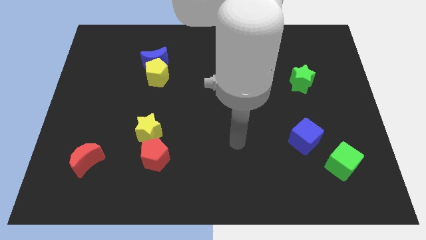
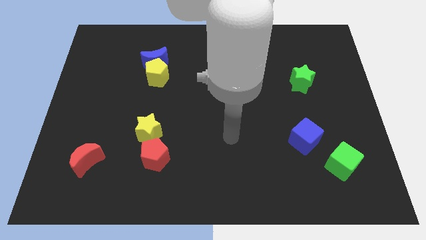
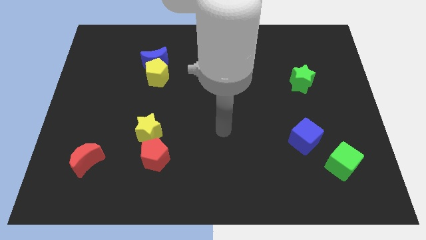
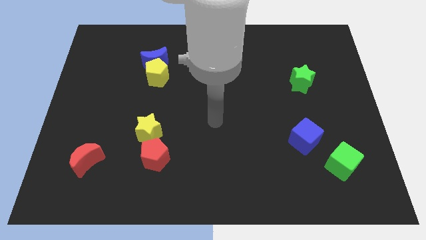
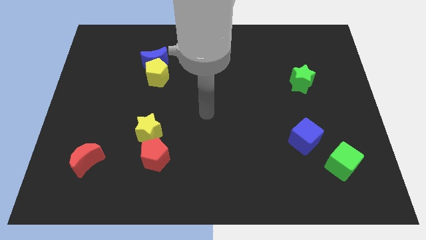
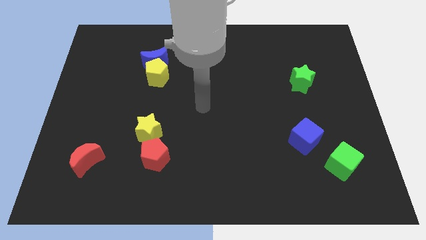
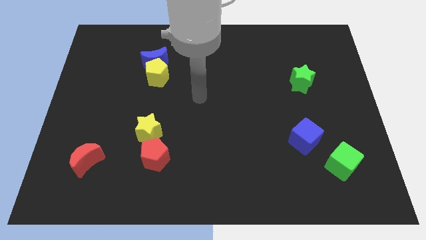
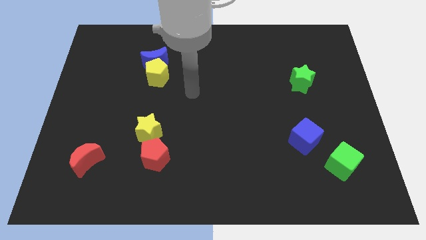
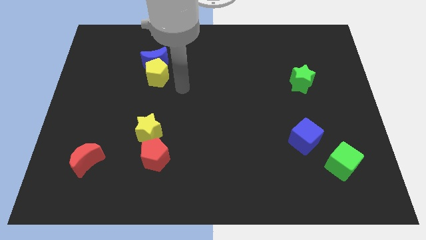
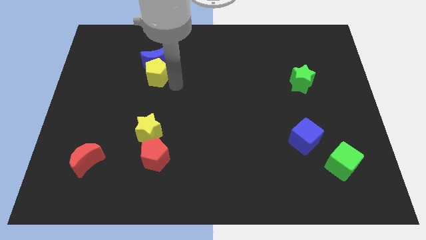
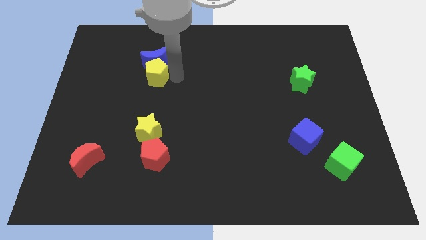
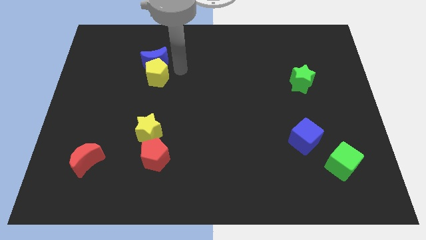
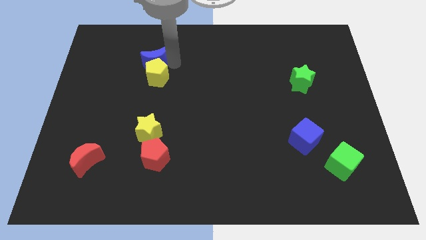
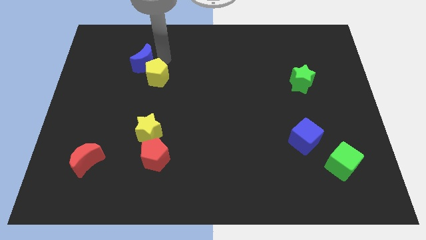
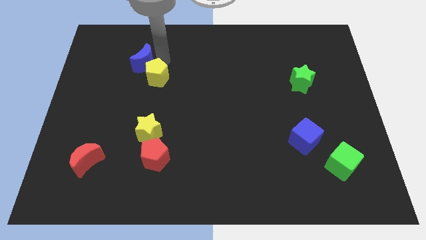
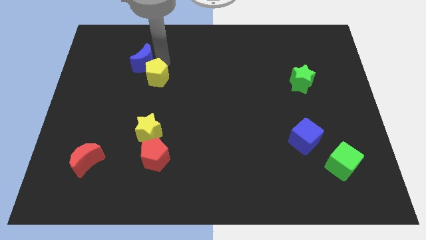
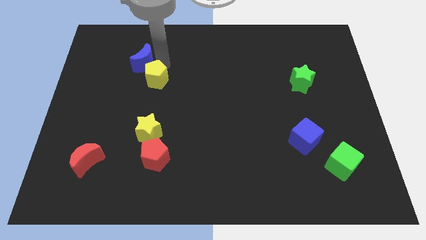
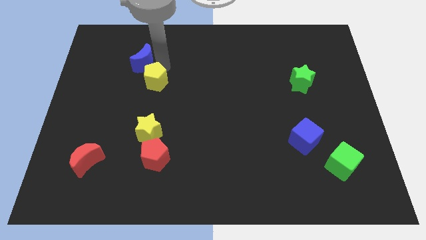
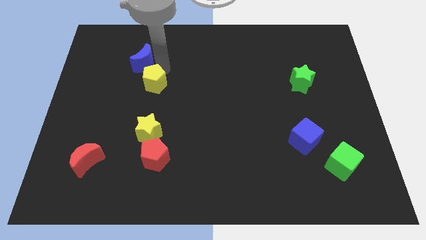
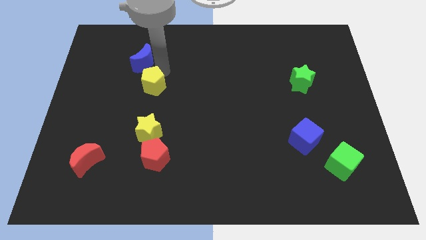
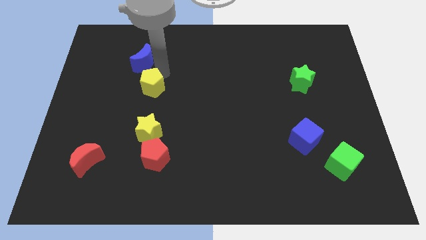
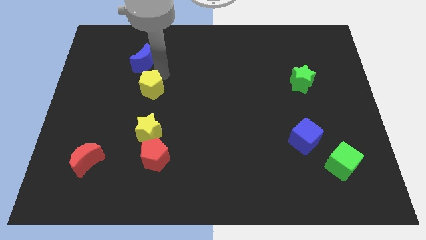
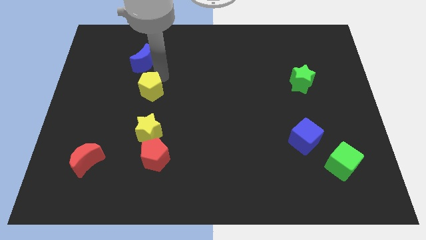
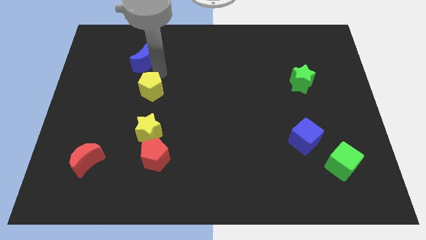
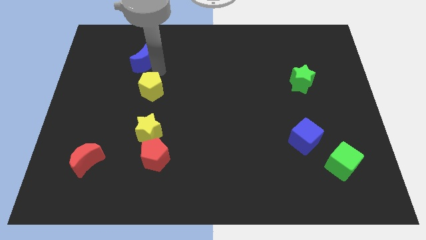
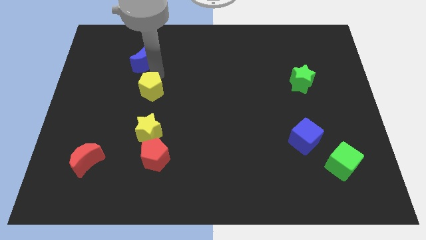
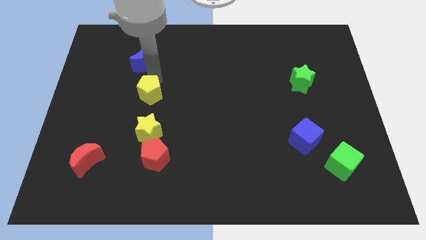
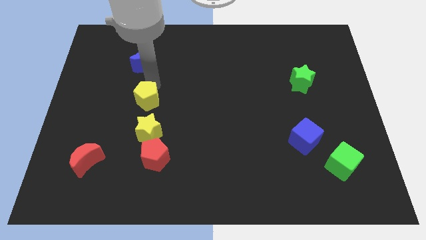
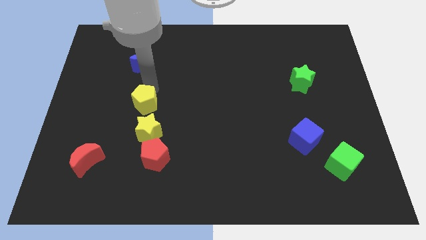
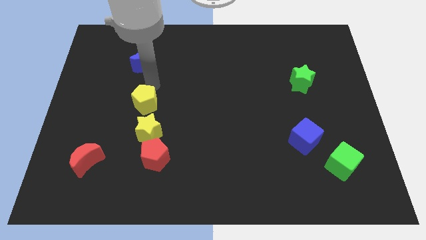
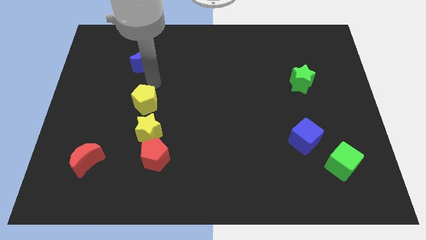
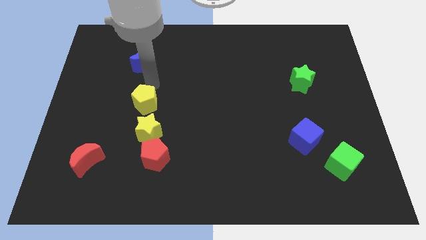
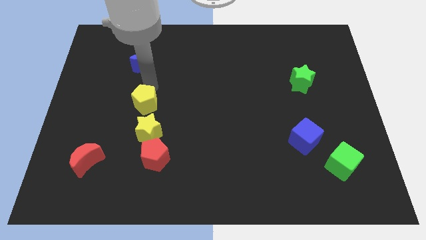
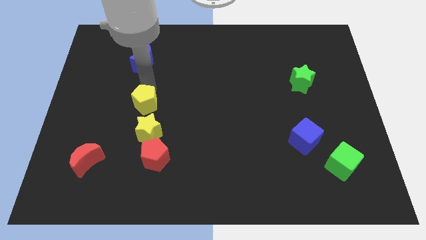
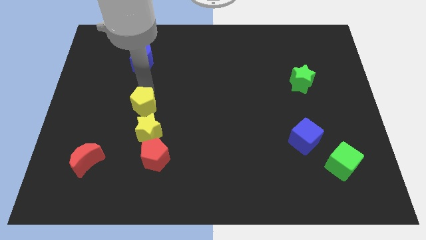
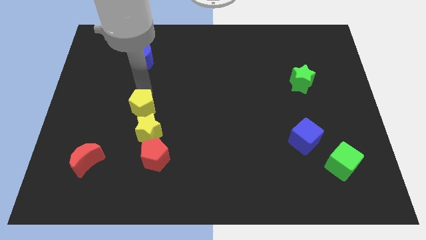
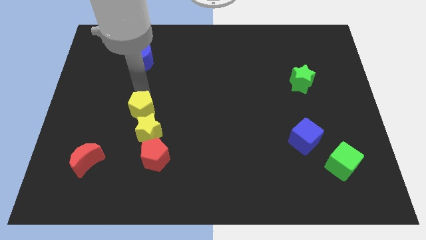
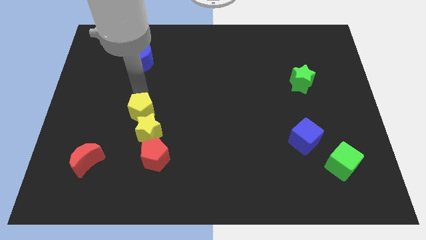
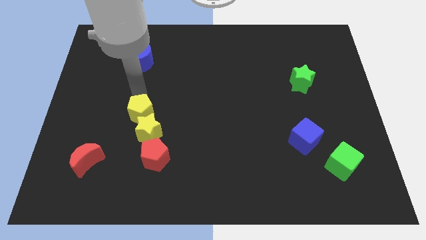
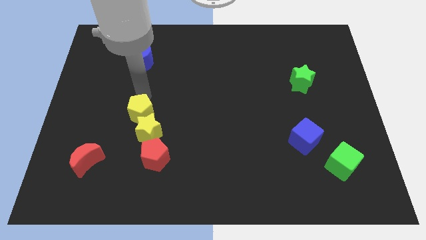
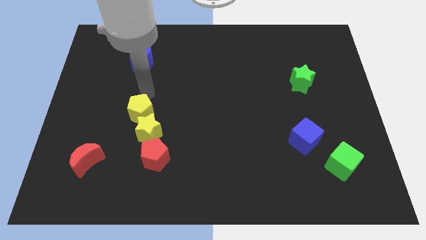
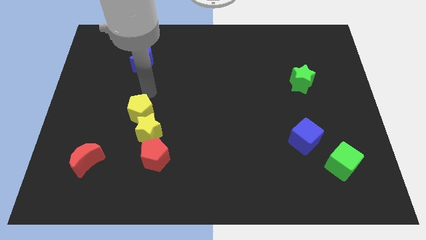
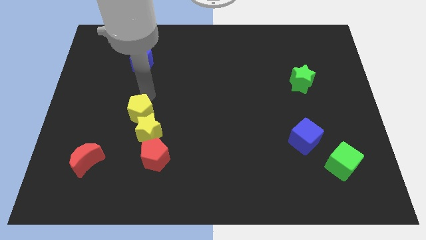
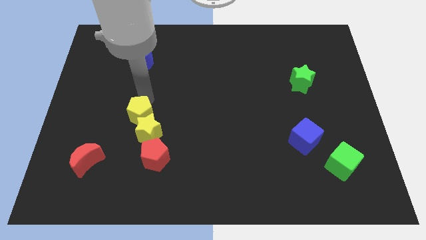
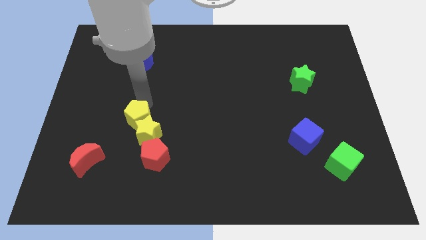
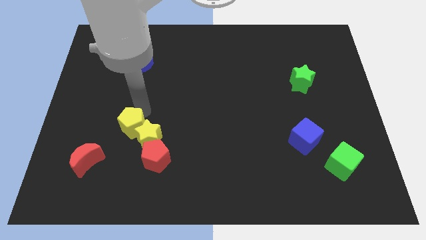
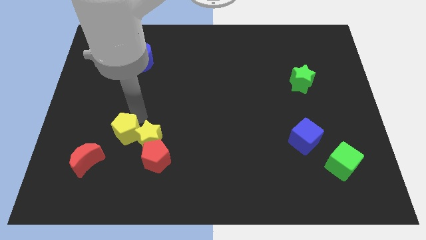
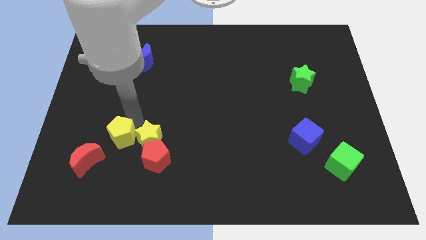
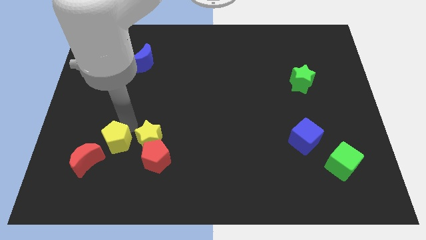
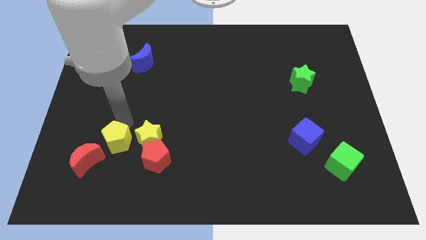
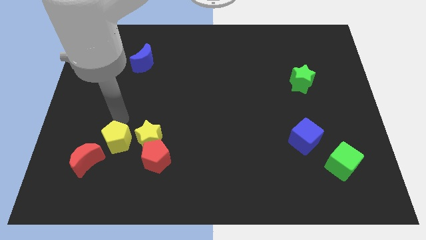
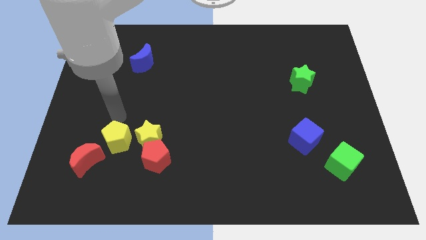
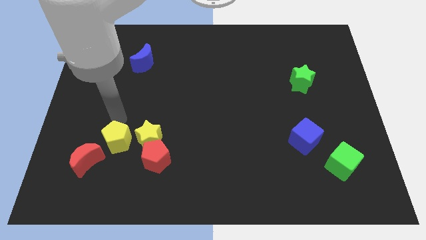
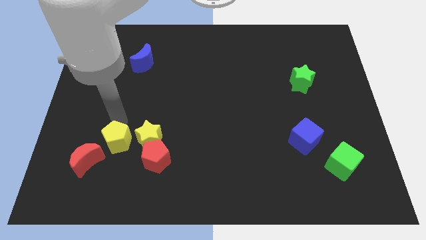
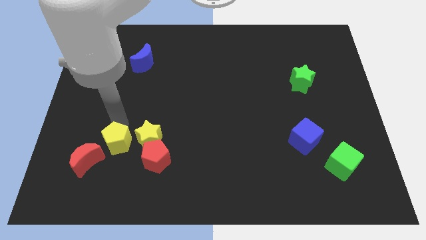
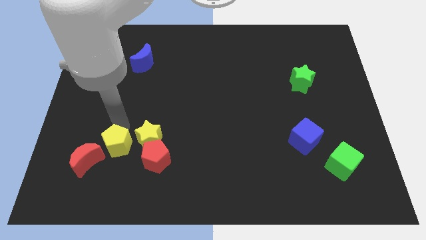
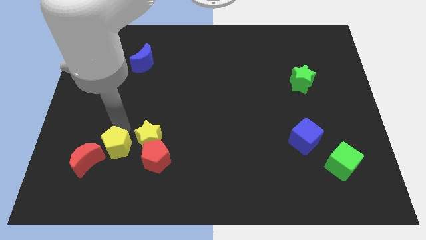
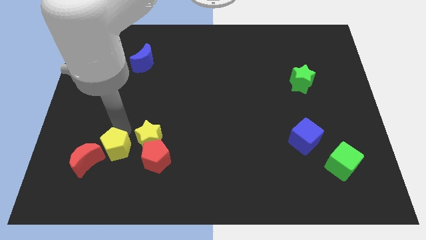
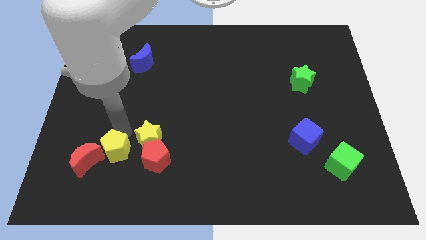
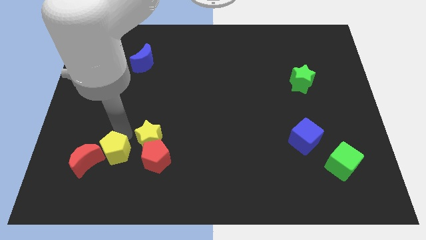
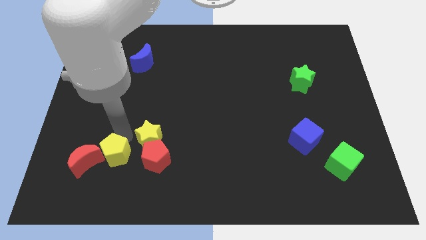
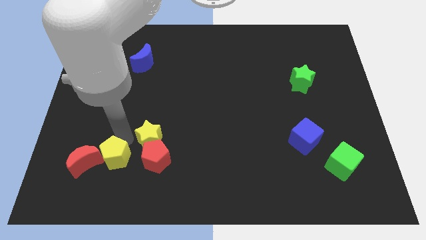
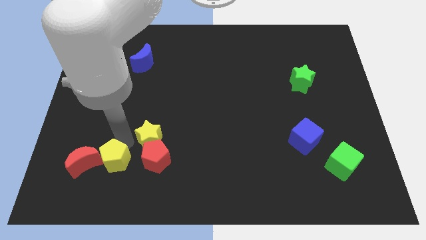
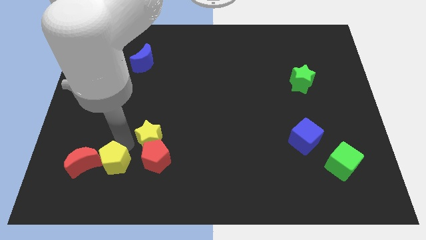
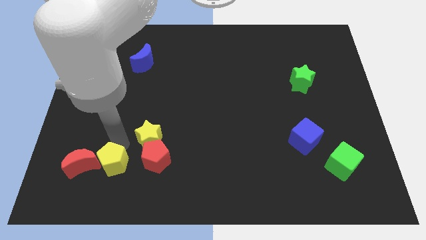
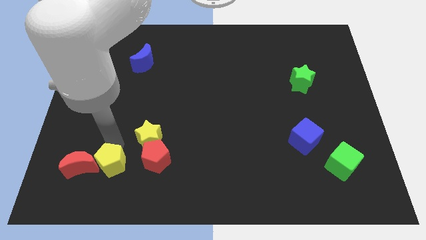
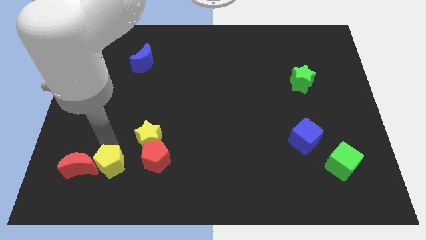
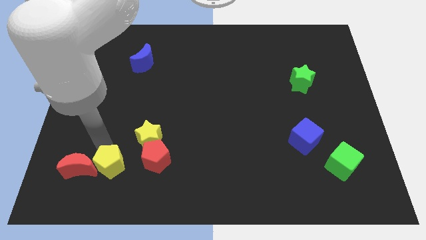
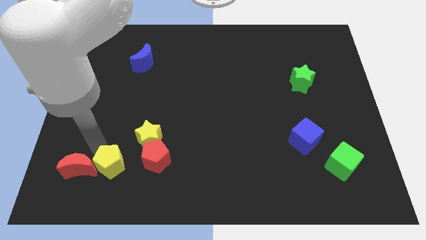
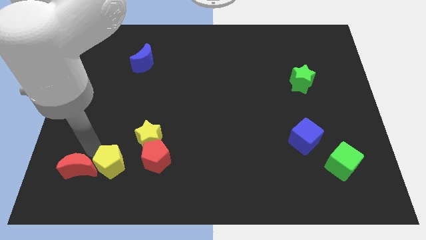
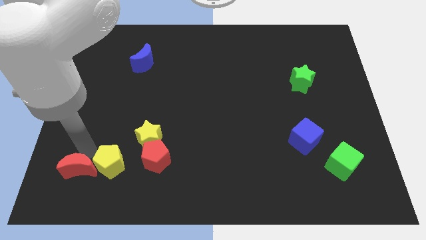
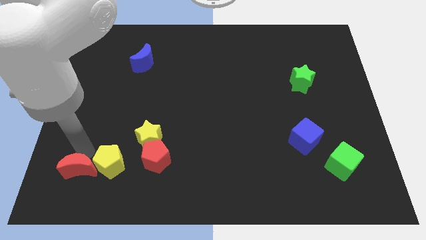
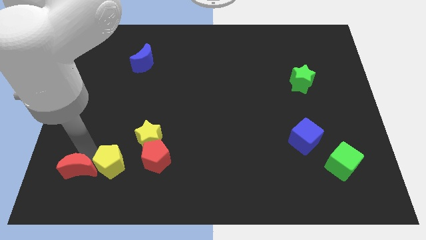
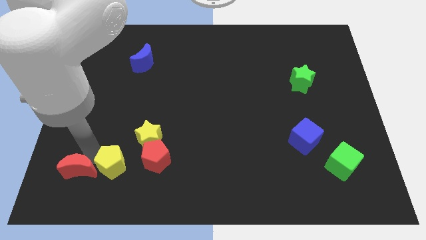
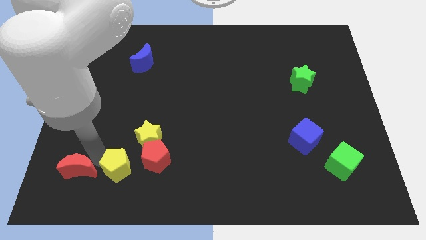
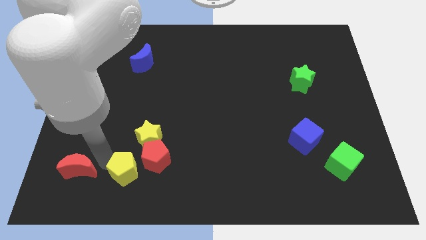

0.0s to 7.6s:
slide the yellow pentagon to the bottom of the yellow star

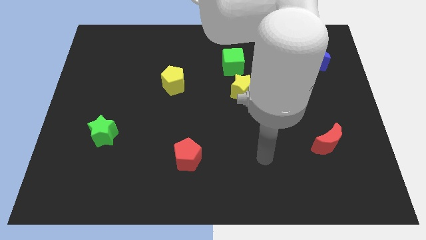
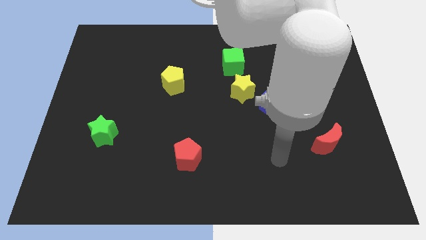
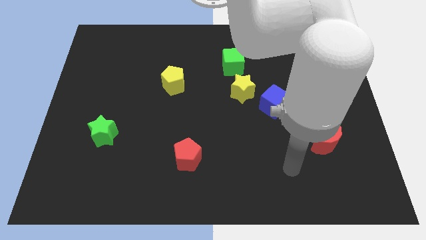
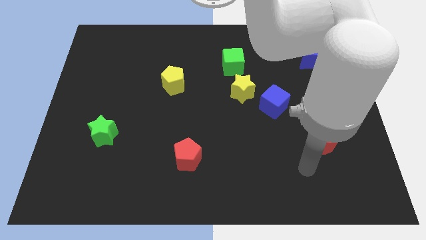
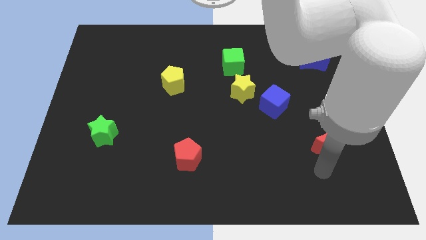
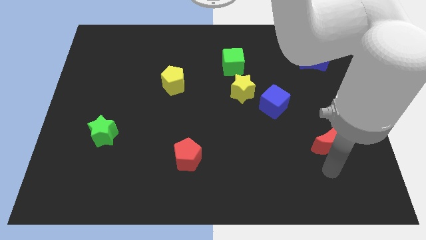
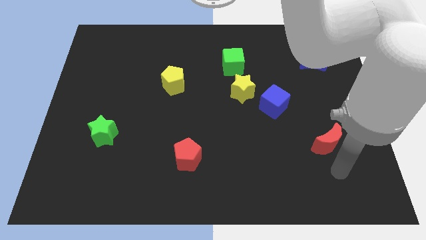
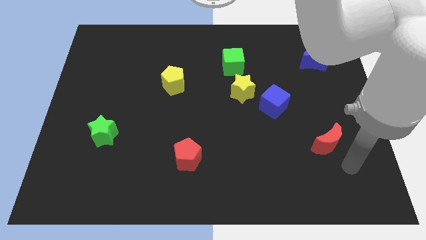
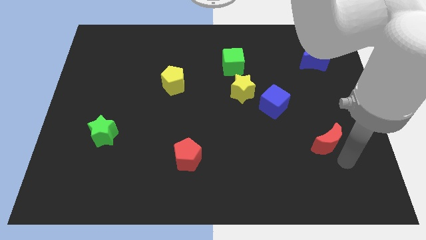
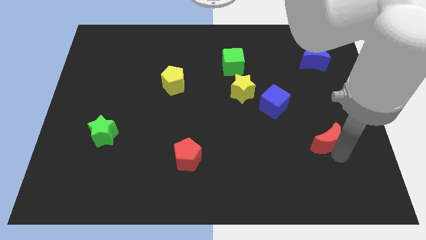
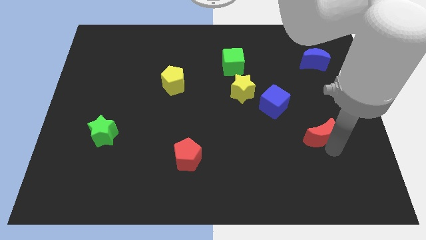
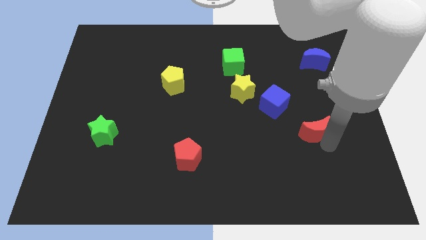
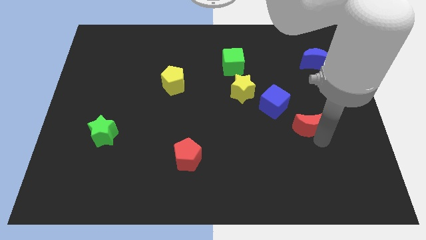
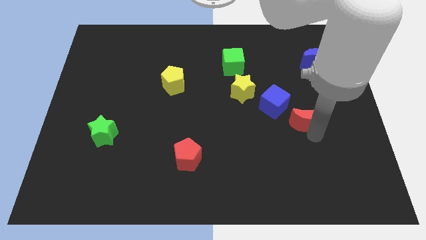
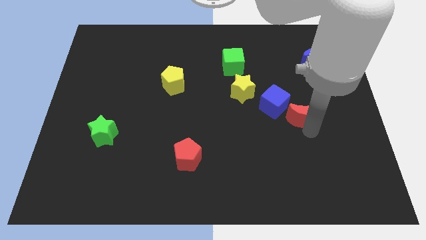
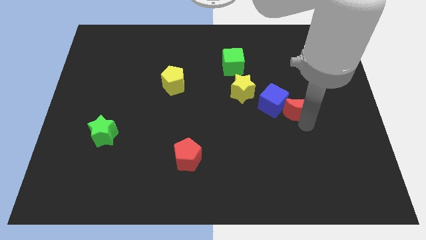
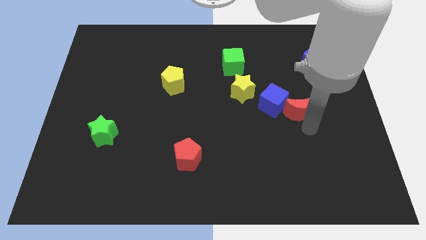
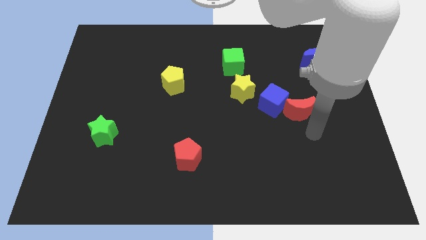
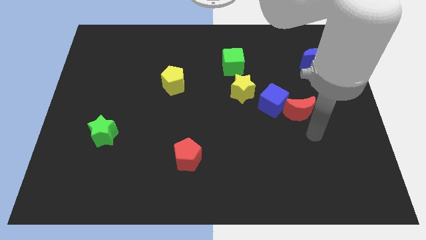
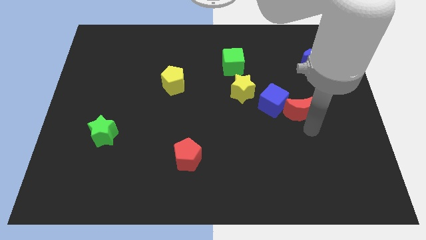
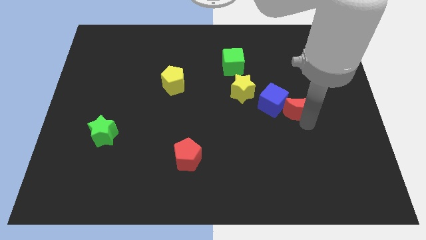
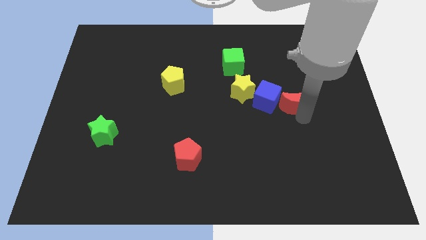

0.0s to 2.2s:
put the red moon to the right of the yellow star
